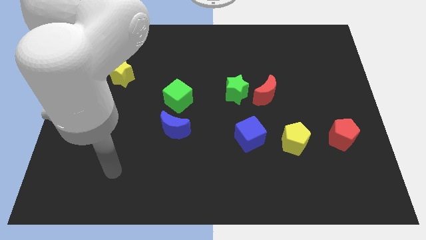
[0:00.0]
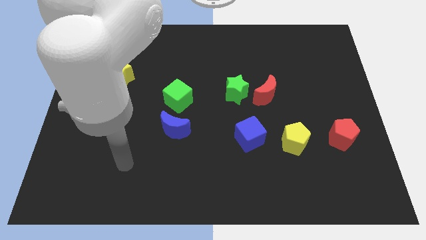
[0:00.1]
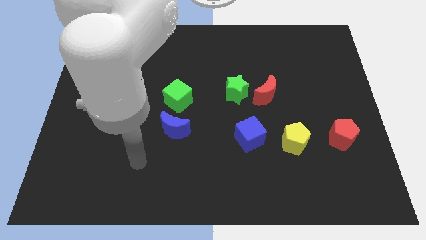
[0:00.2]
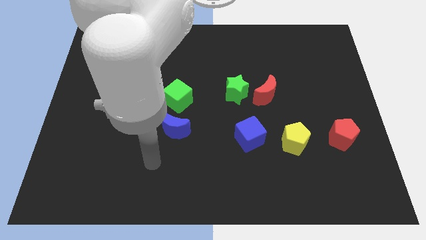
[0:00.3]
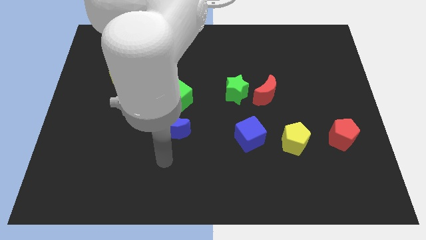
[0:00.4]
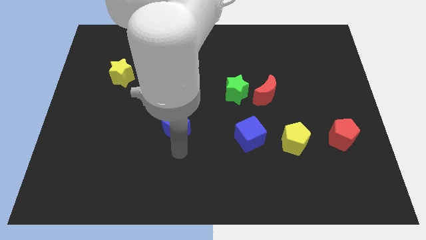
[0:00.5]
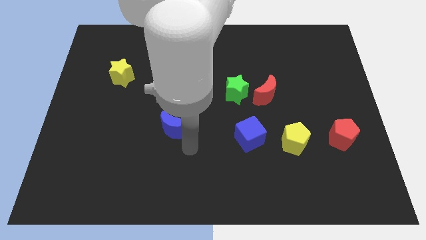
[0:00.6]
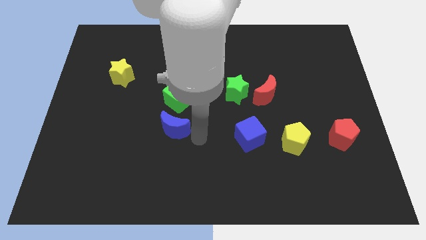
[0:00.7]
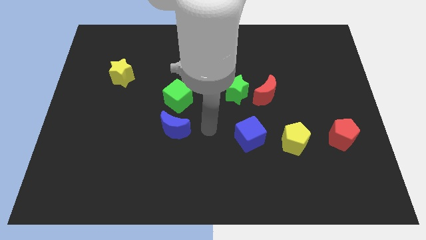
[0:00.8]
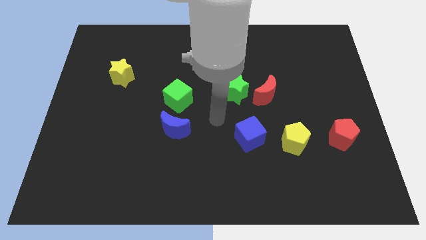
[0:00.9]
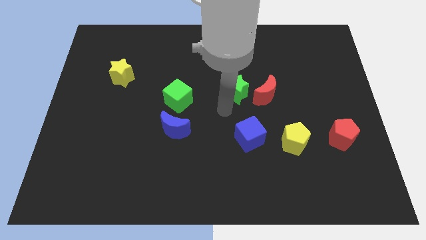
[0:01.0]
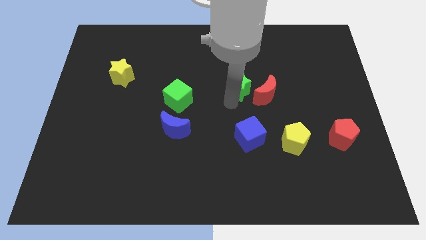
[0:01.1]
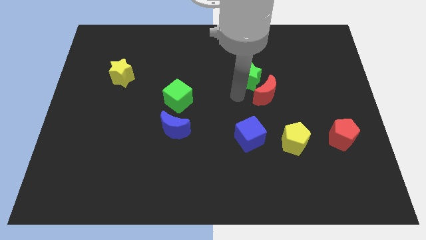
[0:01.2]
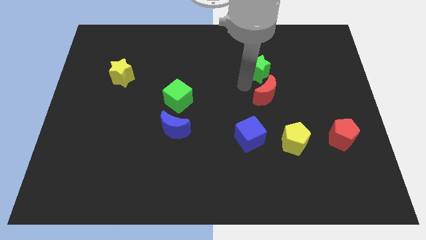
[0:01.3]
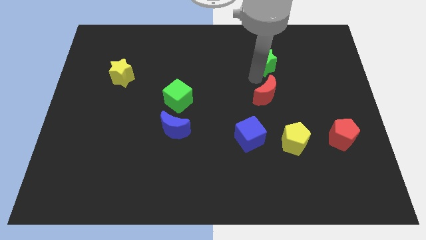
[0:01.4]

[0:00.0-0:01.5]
separate the red moon from the green star

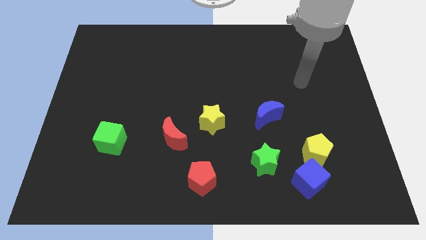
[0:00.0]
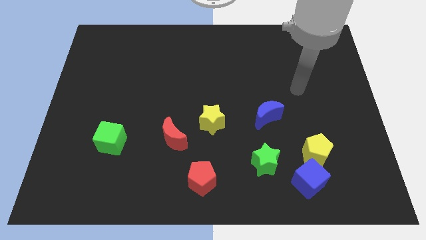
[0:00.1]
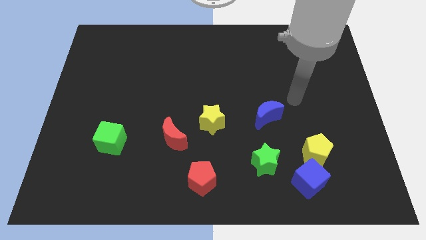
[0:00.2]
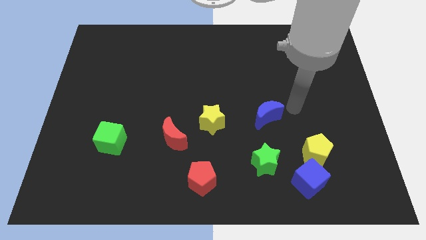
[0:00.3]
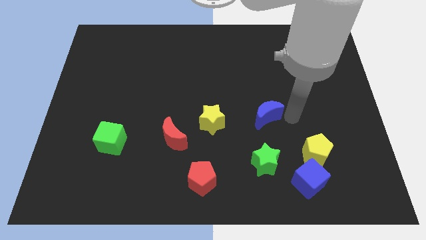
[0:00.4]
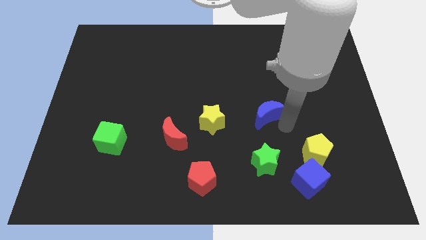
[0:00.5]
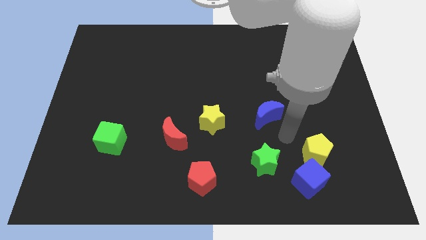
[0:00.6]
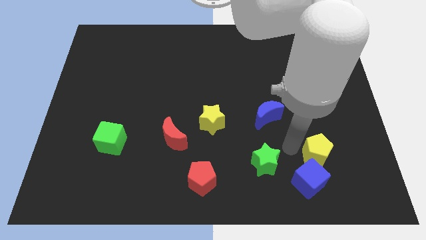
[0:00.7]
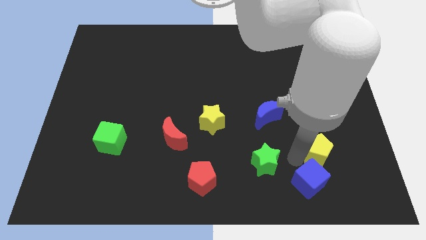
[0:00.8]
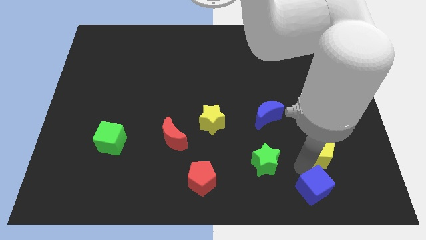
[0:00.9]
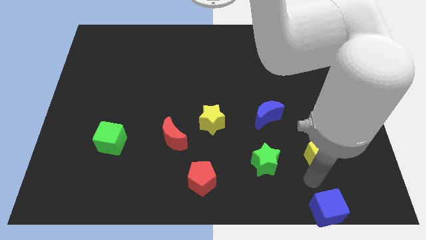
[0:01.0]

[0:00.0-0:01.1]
separate the yellow pentagon from the blue cube

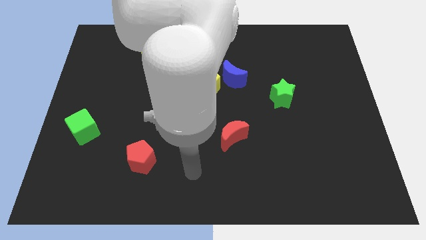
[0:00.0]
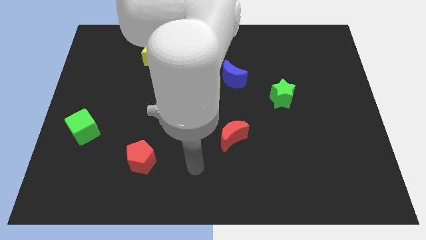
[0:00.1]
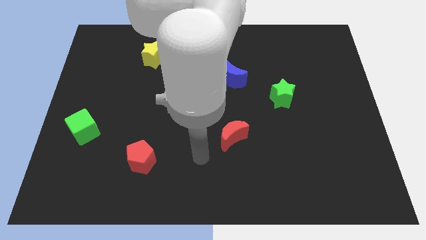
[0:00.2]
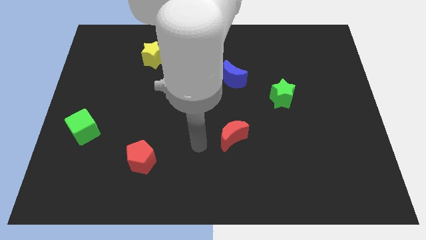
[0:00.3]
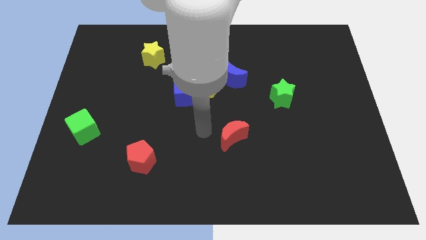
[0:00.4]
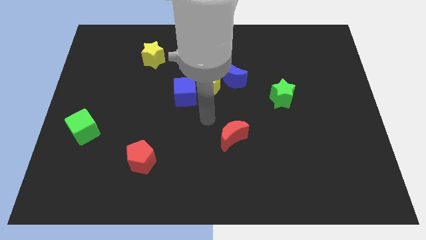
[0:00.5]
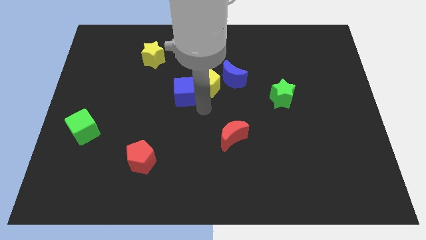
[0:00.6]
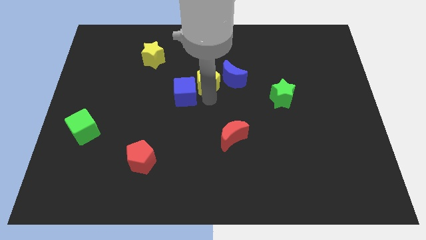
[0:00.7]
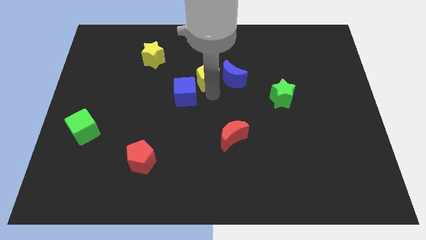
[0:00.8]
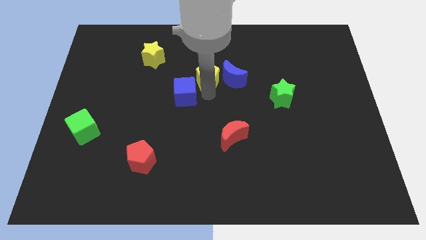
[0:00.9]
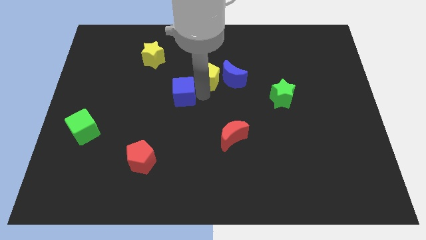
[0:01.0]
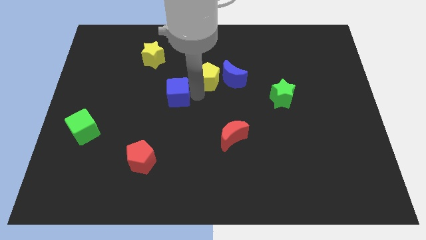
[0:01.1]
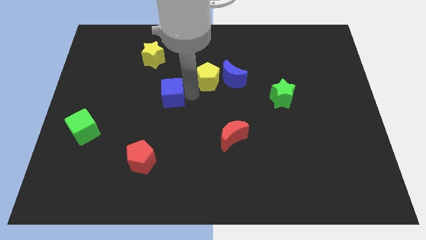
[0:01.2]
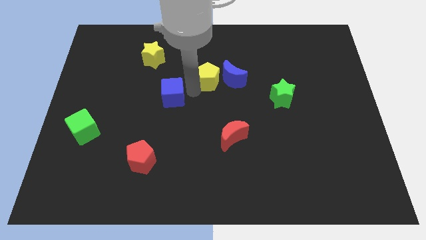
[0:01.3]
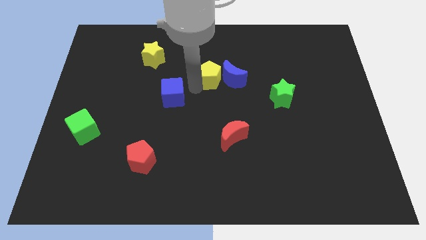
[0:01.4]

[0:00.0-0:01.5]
separate the blue cube from the yellow pentagon

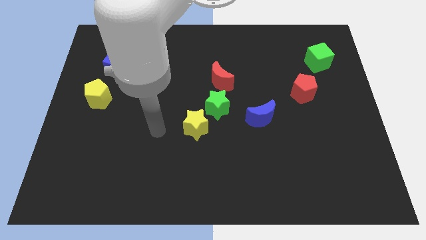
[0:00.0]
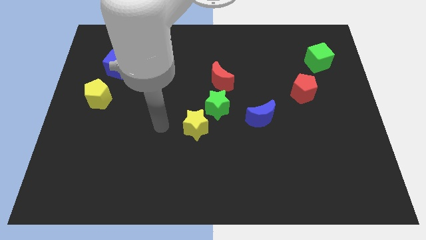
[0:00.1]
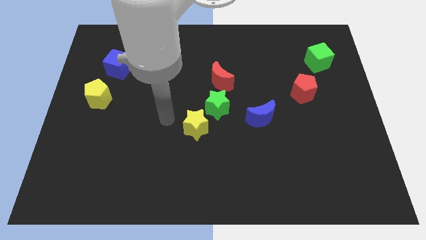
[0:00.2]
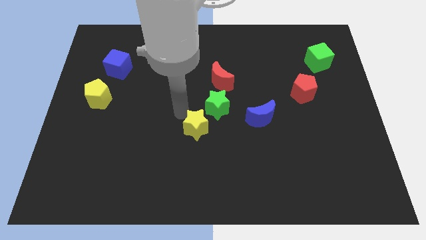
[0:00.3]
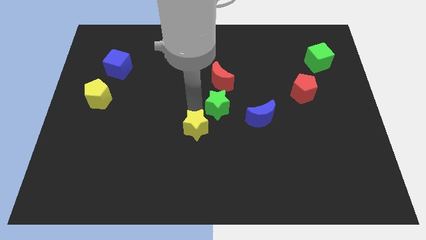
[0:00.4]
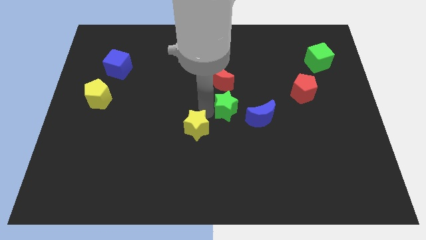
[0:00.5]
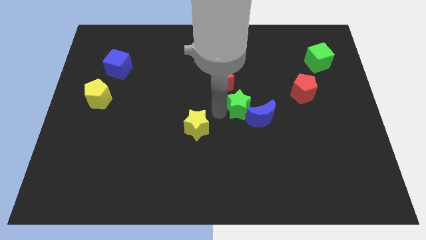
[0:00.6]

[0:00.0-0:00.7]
pull the yellow star apart from the green star

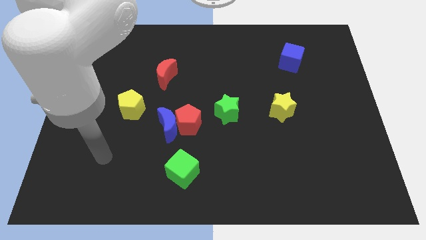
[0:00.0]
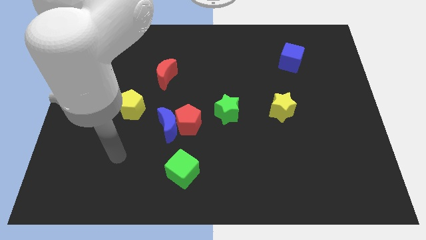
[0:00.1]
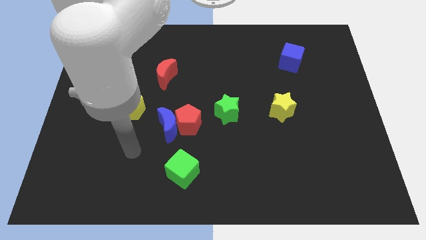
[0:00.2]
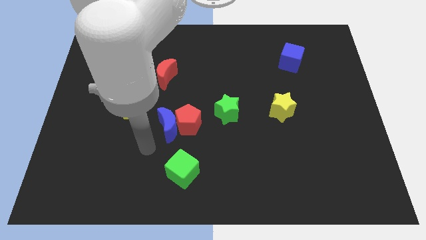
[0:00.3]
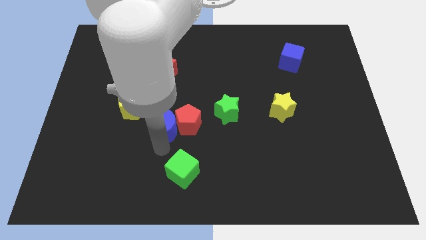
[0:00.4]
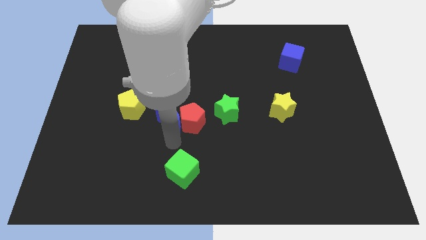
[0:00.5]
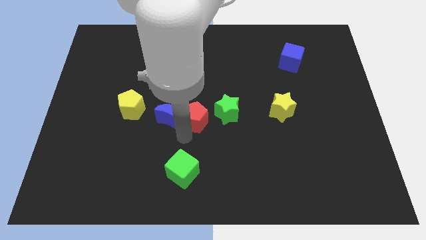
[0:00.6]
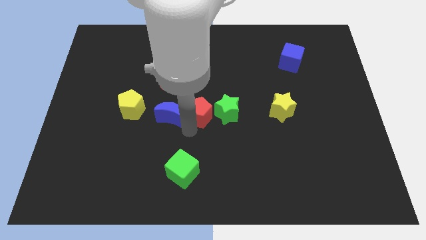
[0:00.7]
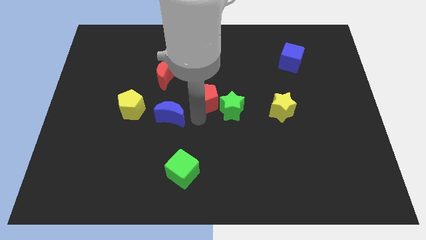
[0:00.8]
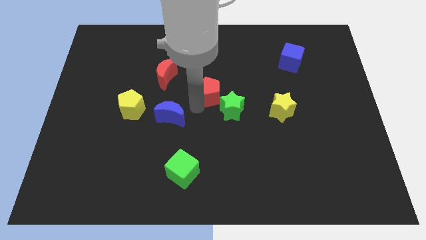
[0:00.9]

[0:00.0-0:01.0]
pull the blue moon apart from the red pentagon

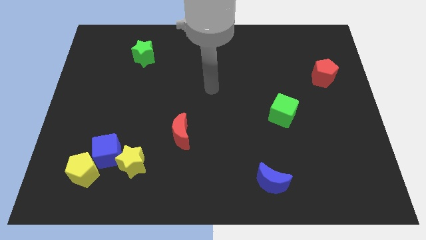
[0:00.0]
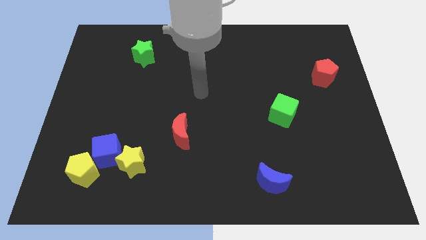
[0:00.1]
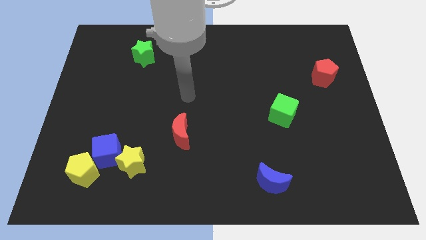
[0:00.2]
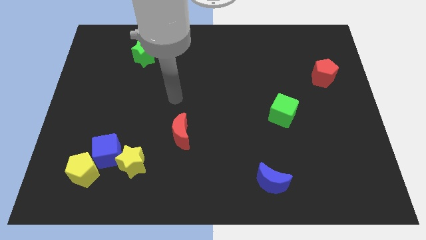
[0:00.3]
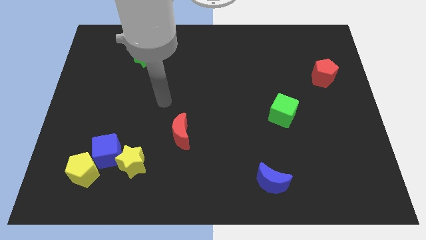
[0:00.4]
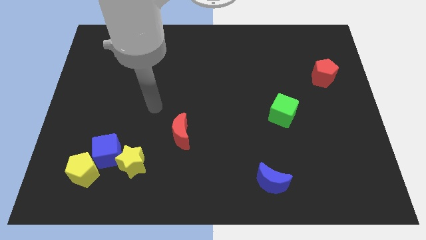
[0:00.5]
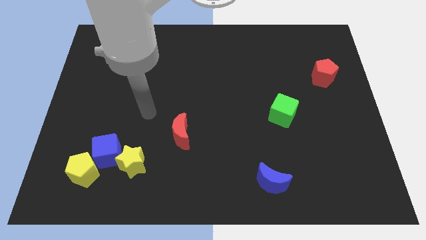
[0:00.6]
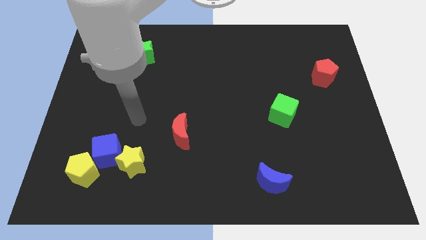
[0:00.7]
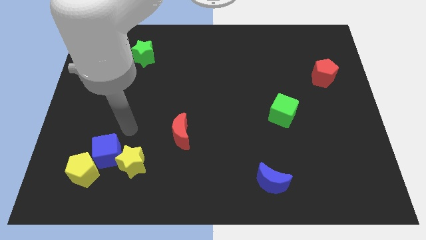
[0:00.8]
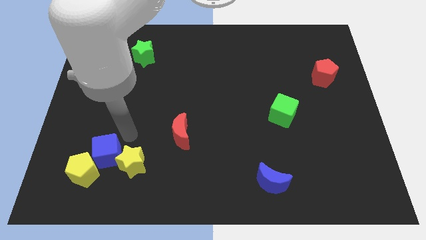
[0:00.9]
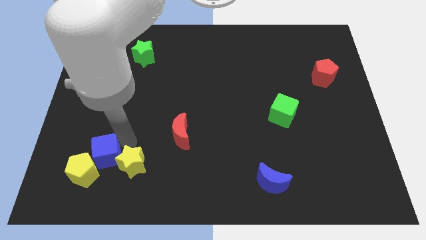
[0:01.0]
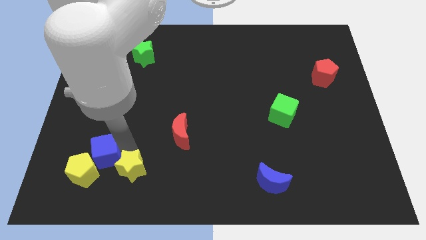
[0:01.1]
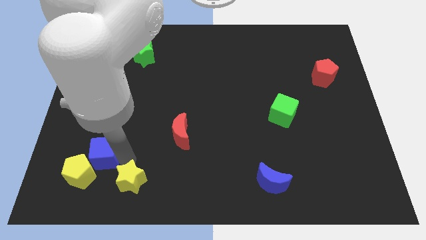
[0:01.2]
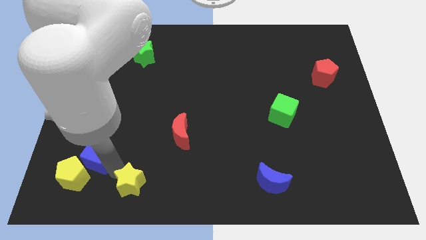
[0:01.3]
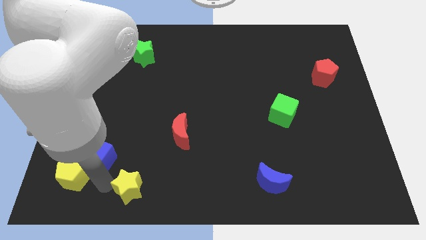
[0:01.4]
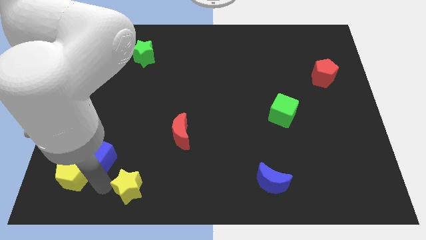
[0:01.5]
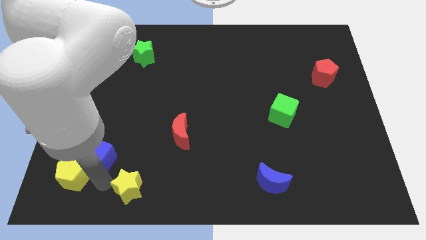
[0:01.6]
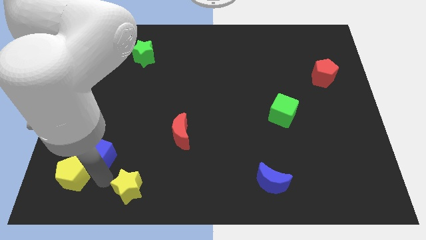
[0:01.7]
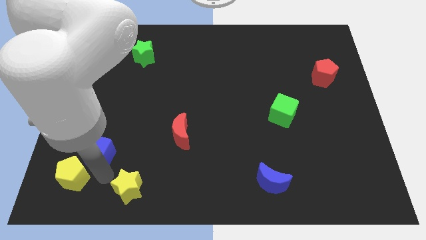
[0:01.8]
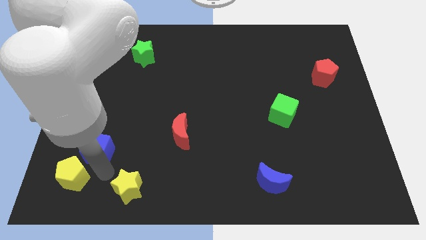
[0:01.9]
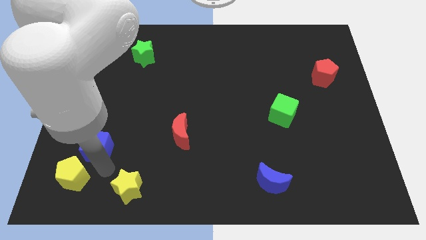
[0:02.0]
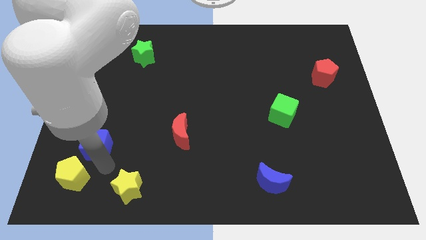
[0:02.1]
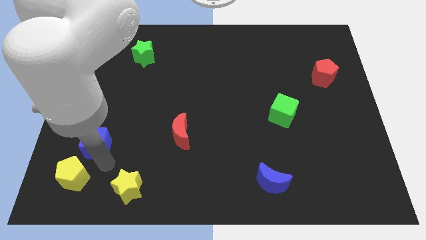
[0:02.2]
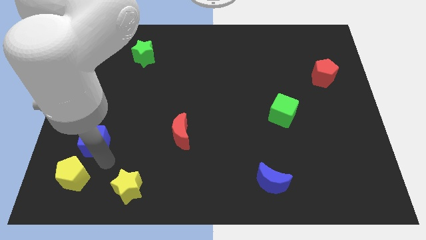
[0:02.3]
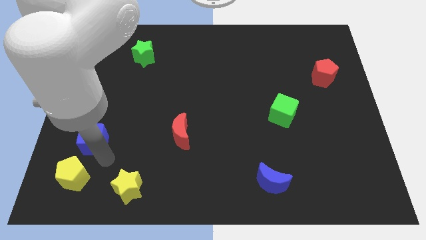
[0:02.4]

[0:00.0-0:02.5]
pull the blue cube apart from the yellow star and yellow pentagon

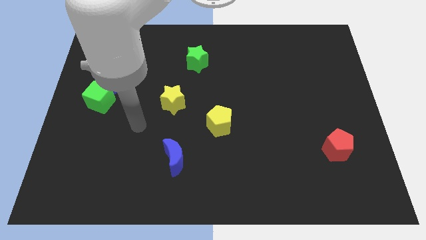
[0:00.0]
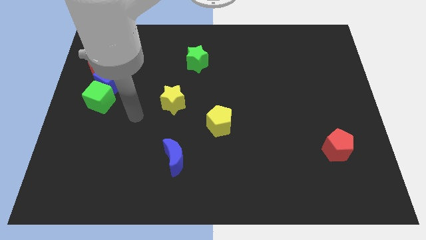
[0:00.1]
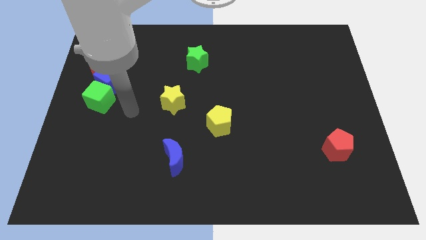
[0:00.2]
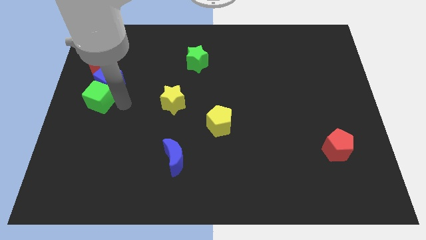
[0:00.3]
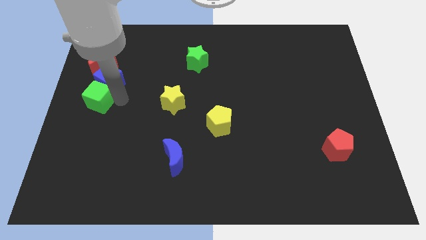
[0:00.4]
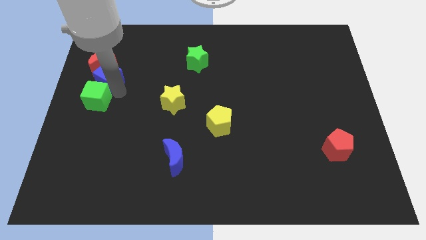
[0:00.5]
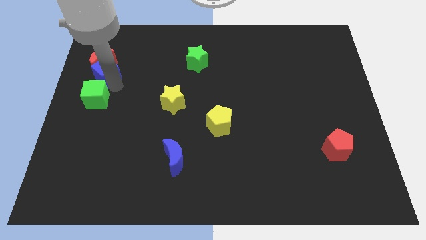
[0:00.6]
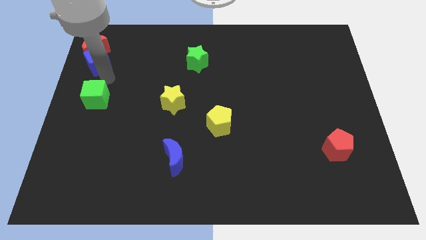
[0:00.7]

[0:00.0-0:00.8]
separate the green cube from the blue cube

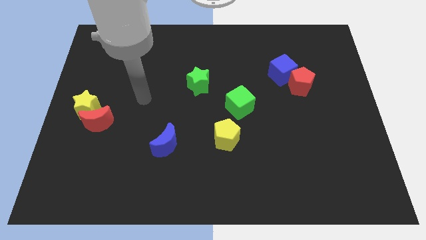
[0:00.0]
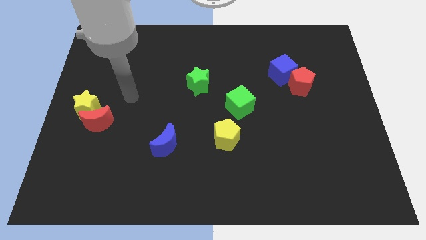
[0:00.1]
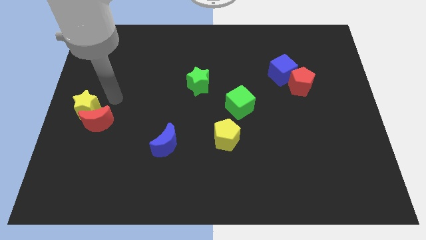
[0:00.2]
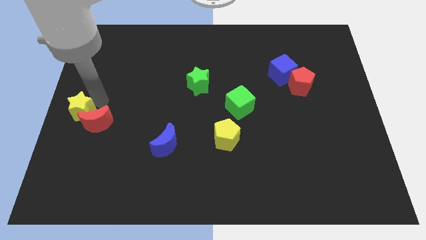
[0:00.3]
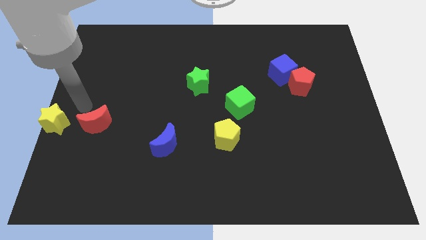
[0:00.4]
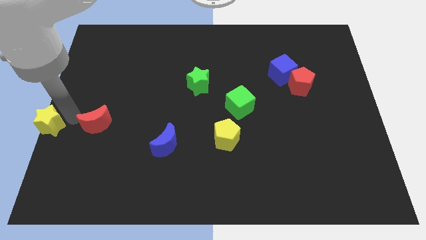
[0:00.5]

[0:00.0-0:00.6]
move the red moon away from the yellow star
